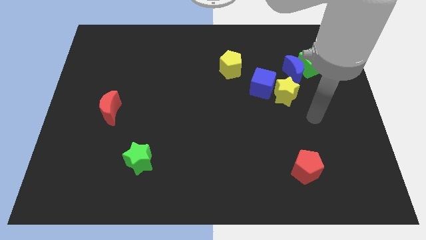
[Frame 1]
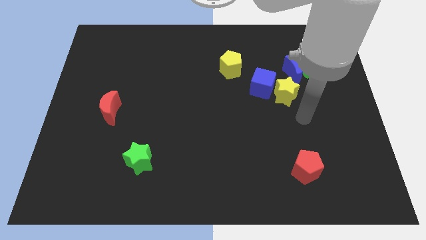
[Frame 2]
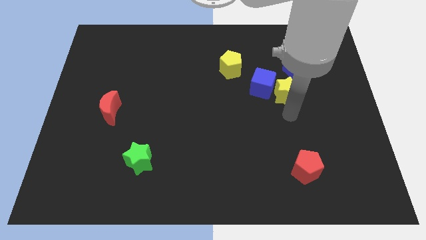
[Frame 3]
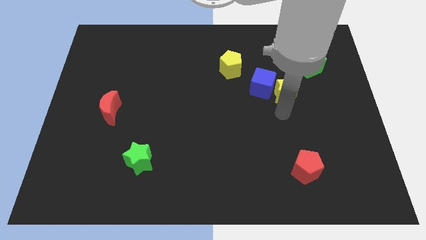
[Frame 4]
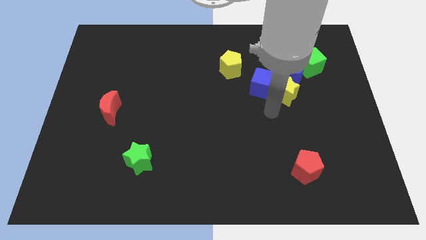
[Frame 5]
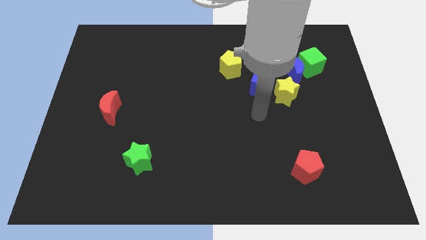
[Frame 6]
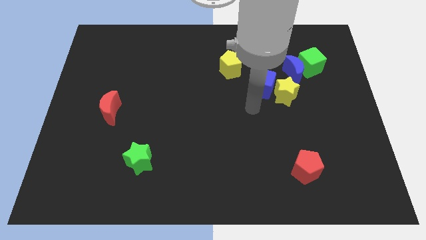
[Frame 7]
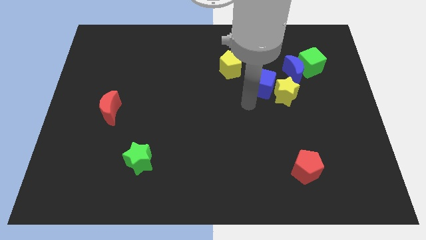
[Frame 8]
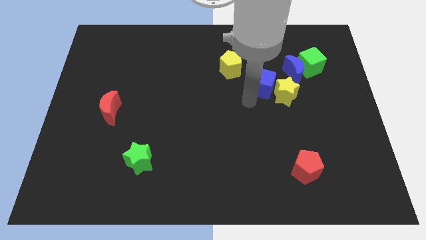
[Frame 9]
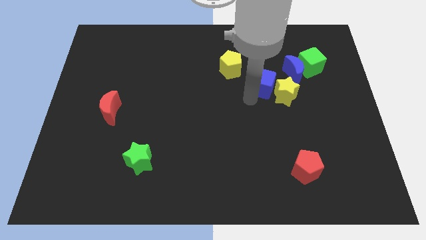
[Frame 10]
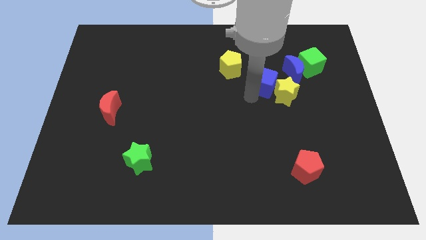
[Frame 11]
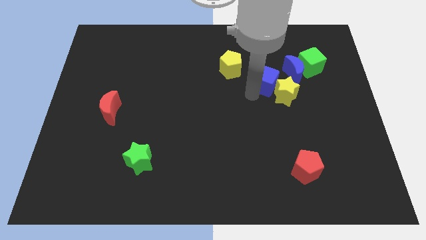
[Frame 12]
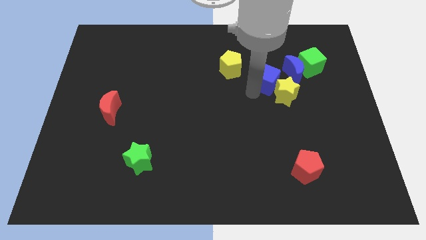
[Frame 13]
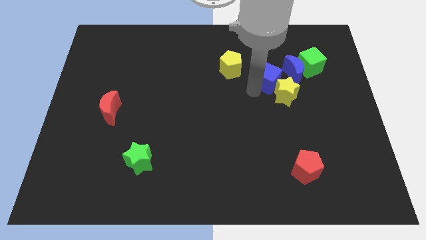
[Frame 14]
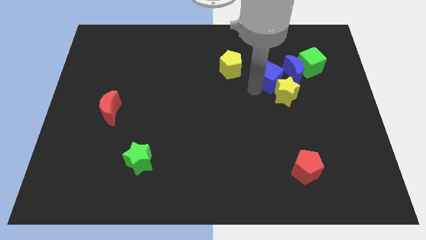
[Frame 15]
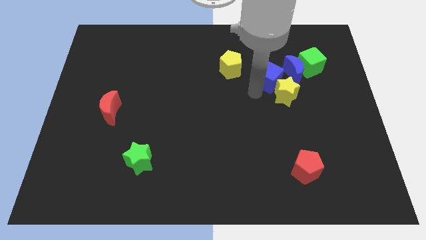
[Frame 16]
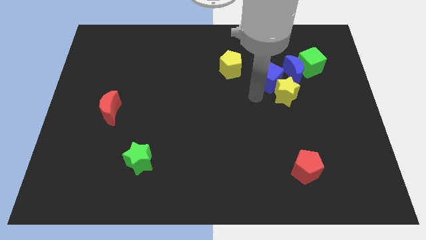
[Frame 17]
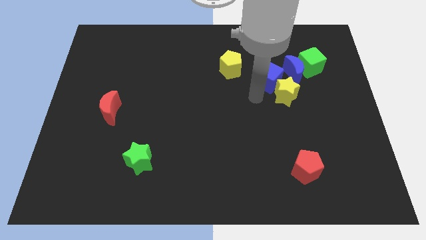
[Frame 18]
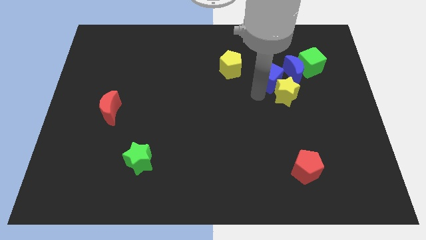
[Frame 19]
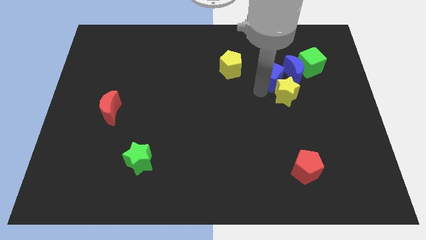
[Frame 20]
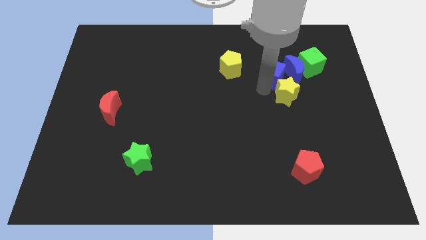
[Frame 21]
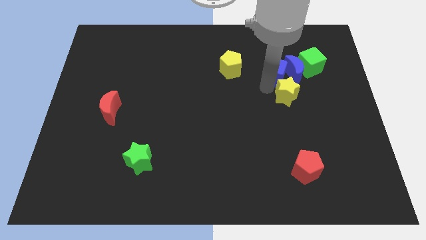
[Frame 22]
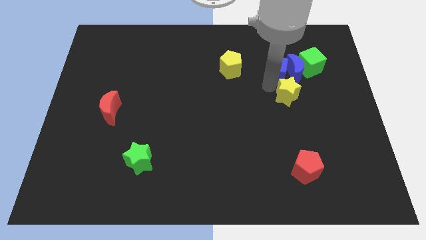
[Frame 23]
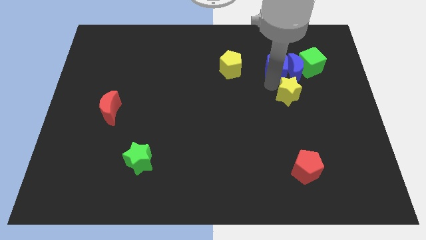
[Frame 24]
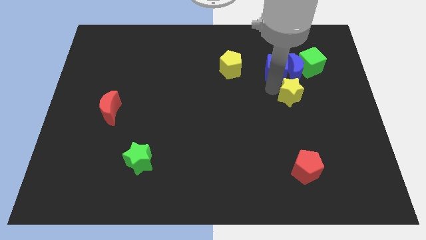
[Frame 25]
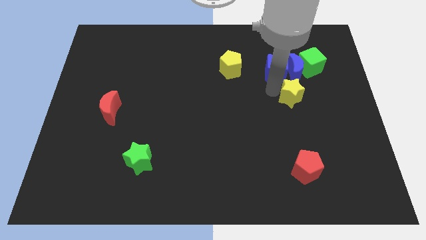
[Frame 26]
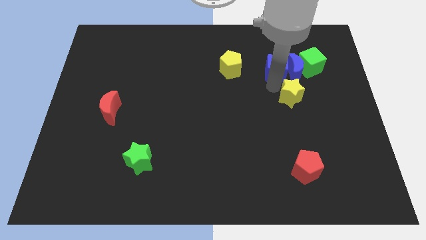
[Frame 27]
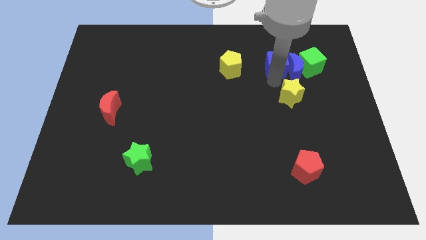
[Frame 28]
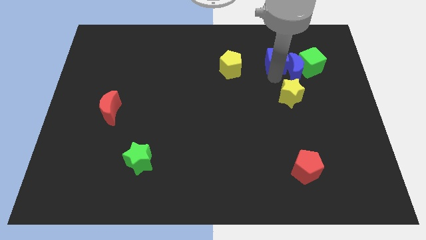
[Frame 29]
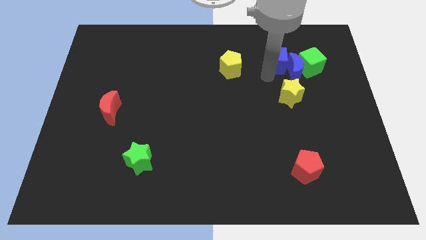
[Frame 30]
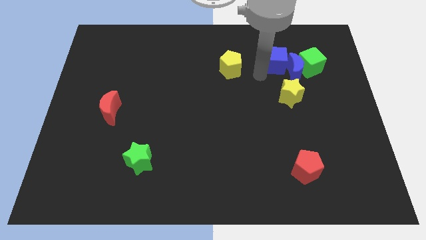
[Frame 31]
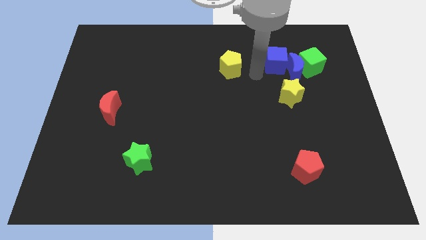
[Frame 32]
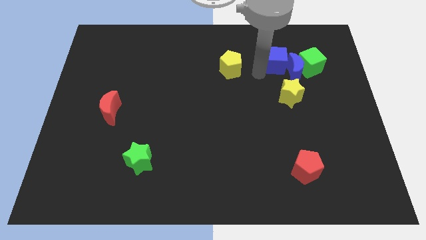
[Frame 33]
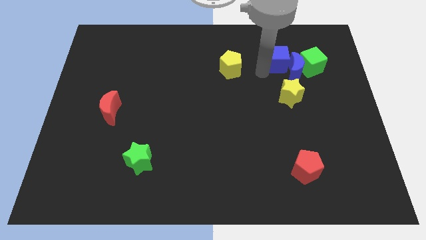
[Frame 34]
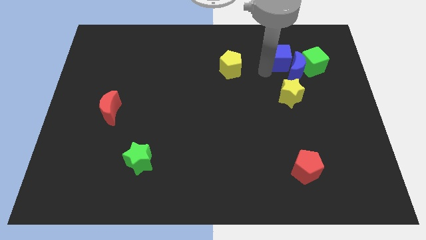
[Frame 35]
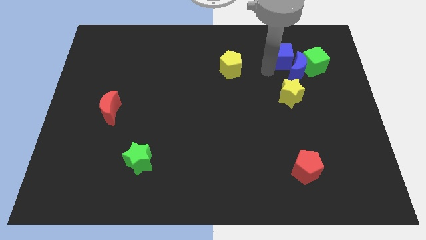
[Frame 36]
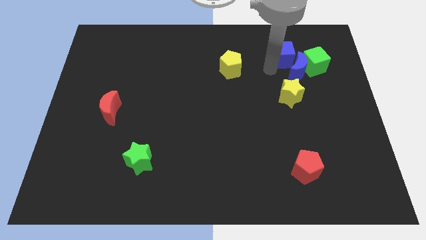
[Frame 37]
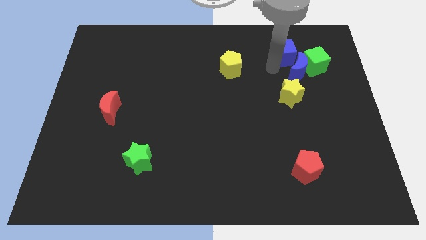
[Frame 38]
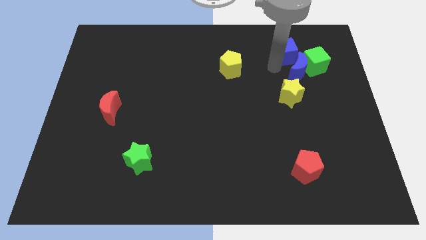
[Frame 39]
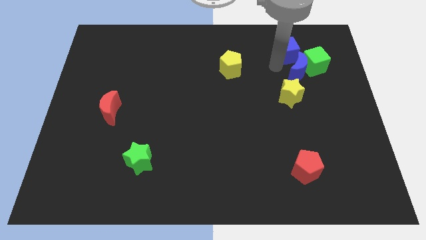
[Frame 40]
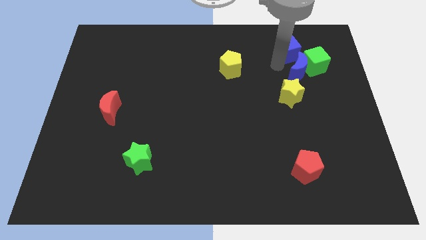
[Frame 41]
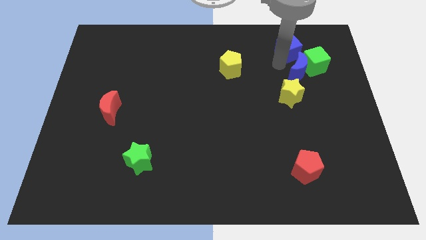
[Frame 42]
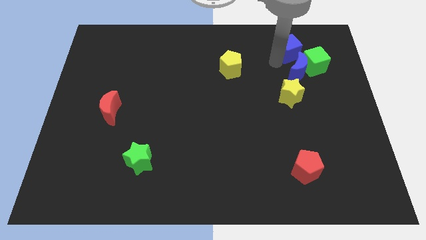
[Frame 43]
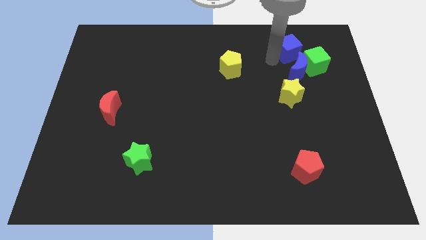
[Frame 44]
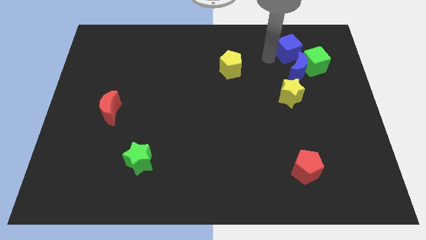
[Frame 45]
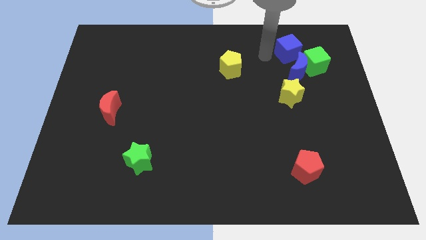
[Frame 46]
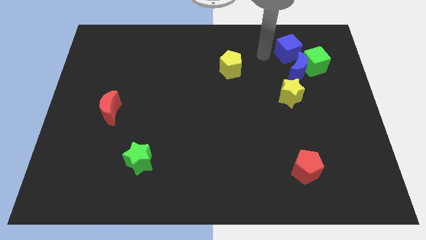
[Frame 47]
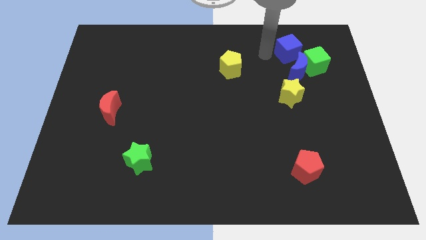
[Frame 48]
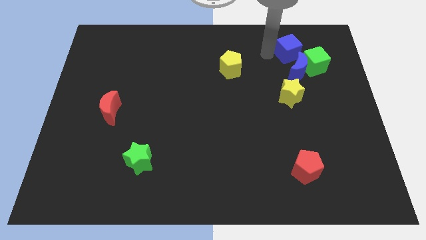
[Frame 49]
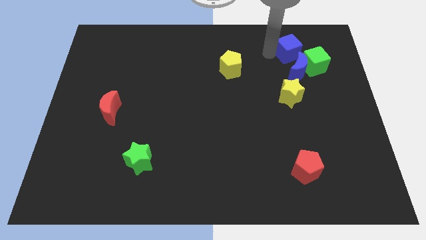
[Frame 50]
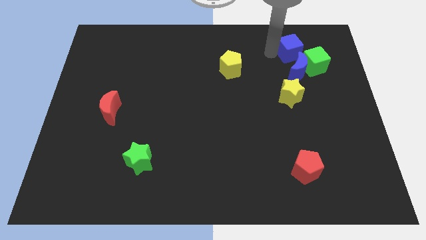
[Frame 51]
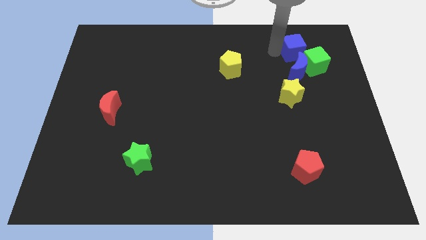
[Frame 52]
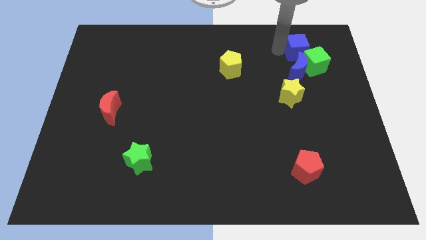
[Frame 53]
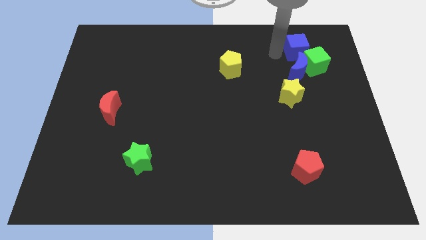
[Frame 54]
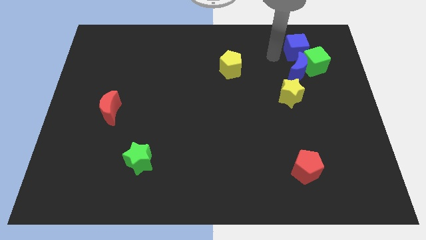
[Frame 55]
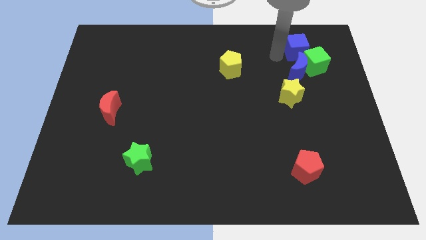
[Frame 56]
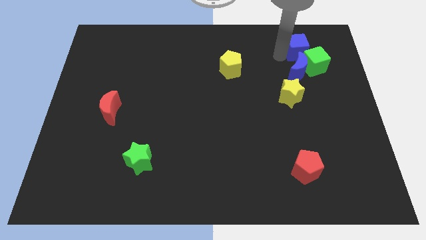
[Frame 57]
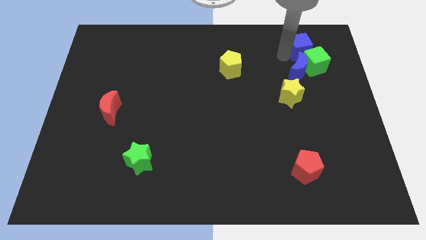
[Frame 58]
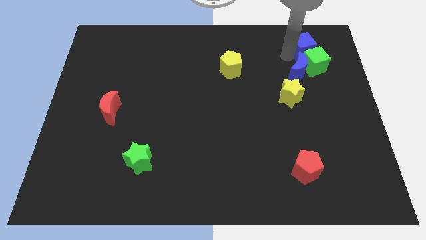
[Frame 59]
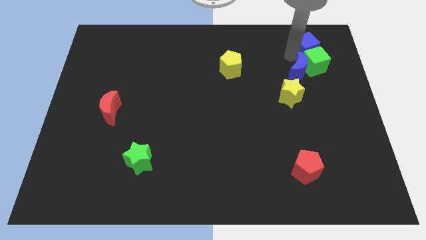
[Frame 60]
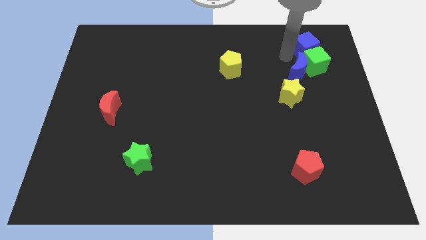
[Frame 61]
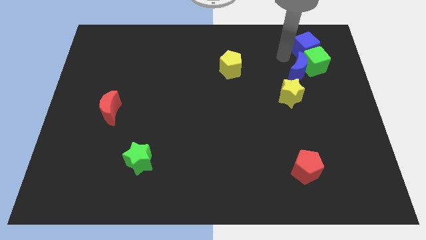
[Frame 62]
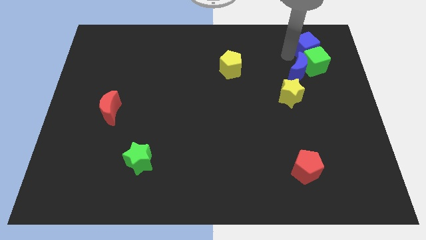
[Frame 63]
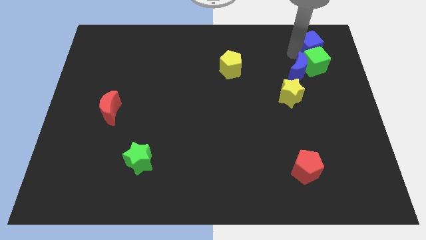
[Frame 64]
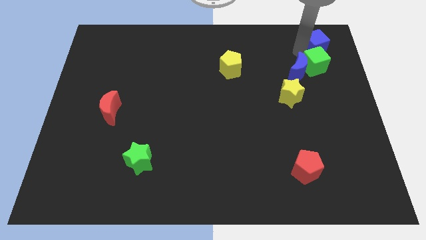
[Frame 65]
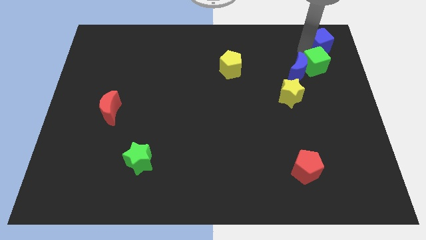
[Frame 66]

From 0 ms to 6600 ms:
put the blue cube to the top right
